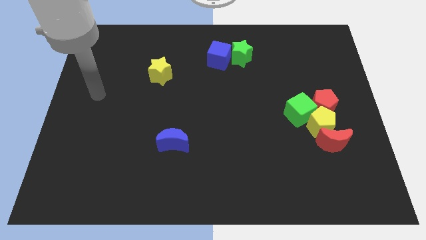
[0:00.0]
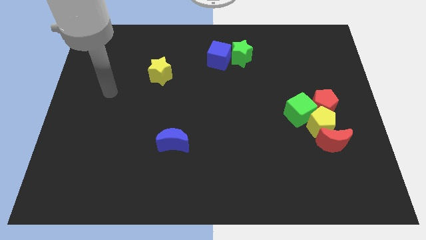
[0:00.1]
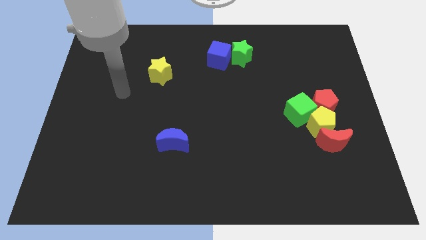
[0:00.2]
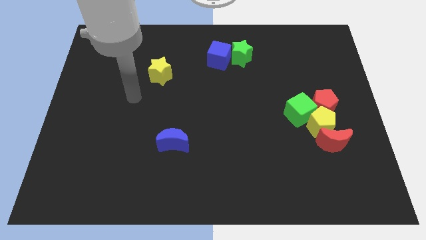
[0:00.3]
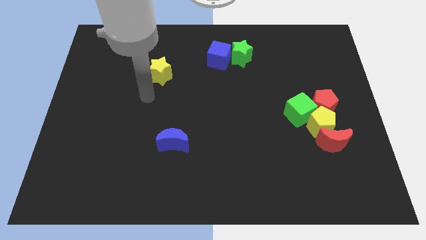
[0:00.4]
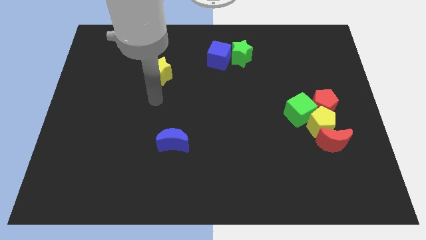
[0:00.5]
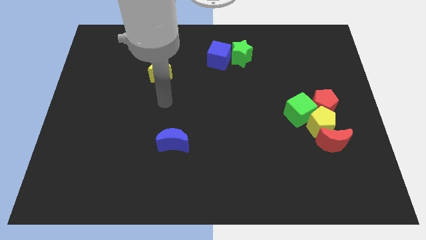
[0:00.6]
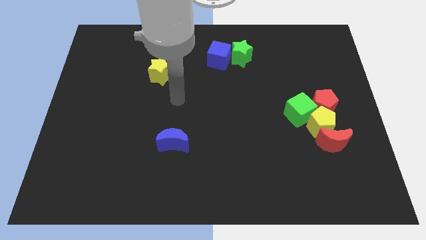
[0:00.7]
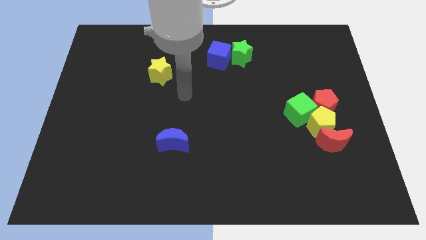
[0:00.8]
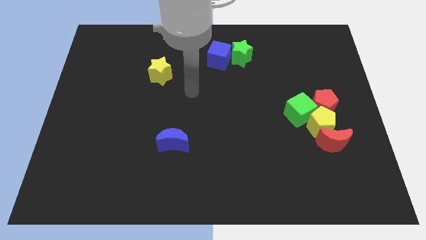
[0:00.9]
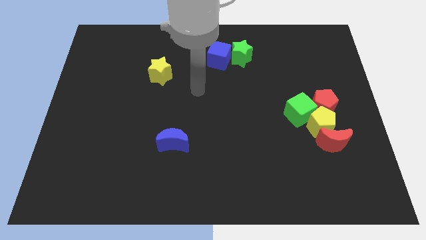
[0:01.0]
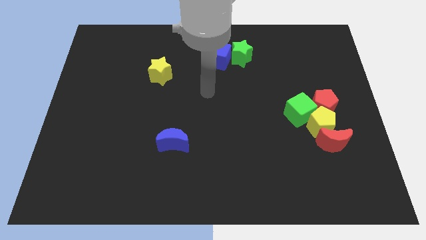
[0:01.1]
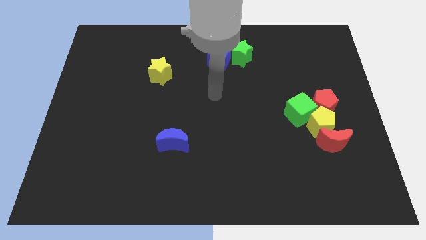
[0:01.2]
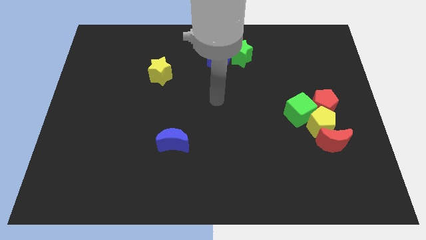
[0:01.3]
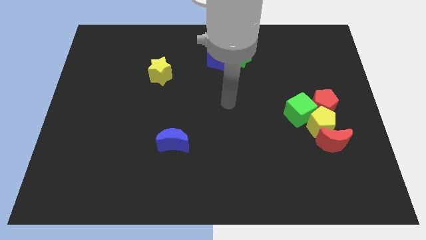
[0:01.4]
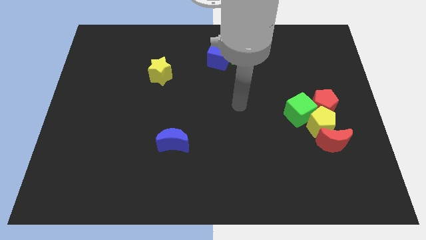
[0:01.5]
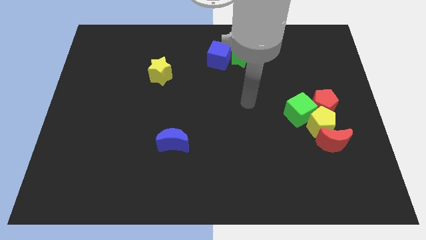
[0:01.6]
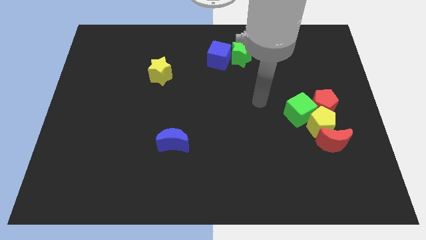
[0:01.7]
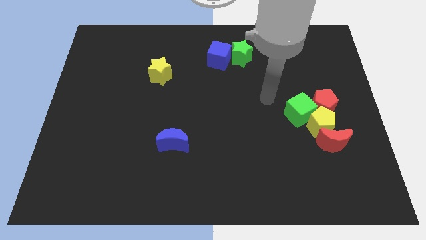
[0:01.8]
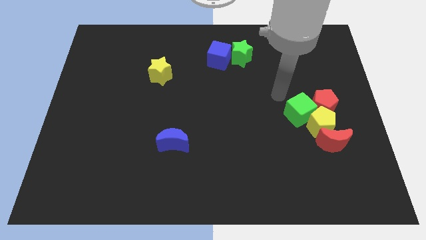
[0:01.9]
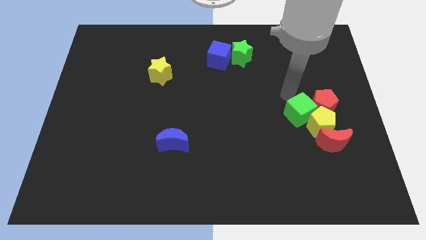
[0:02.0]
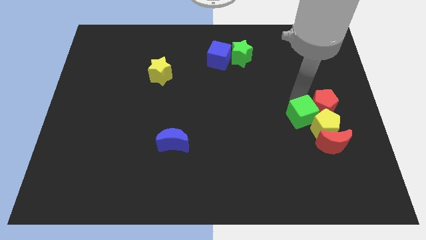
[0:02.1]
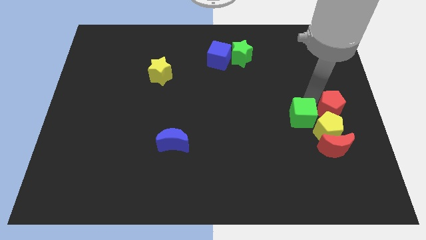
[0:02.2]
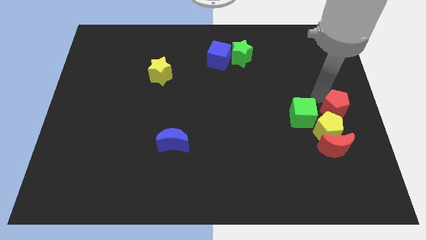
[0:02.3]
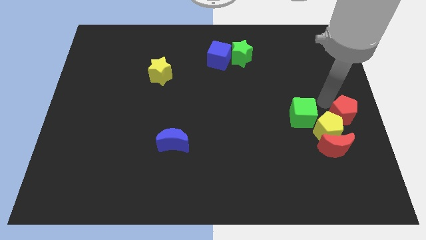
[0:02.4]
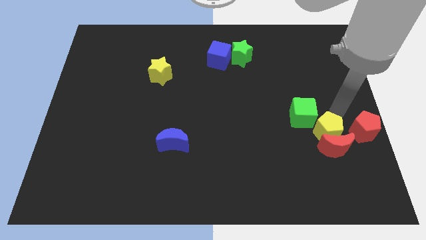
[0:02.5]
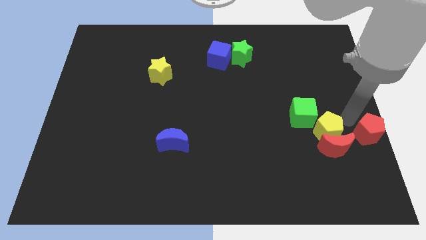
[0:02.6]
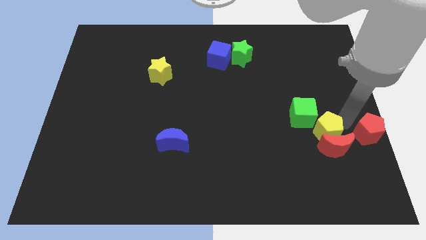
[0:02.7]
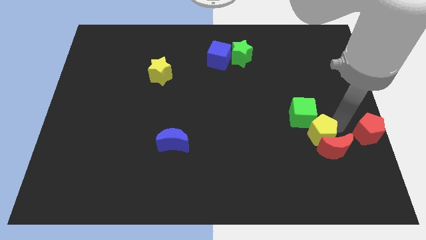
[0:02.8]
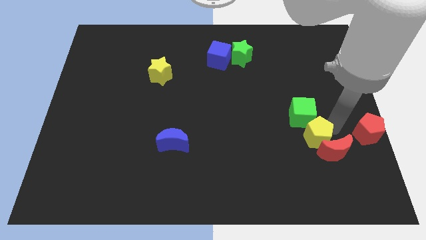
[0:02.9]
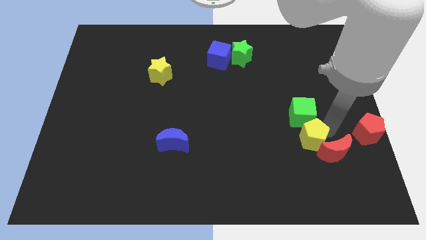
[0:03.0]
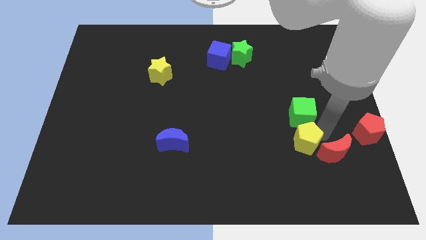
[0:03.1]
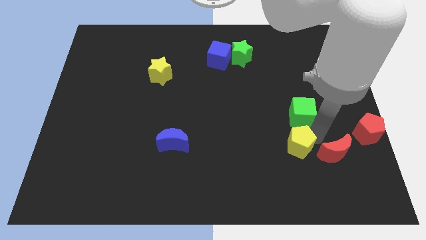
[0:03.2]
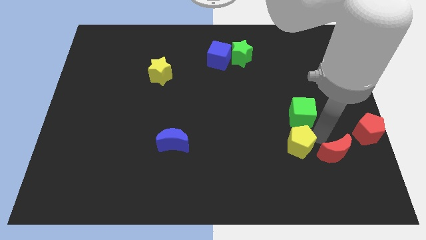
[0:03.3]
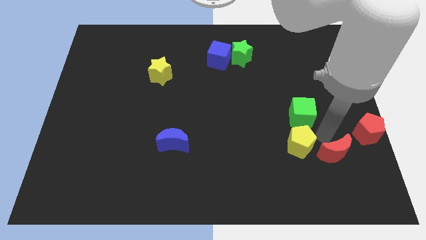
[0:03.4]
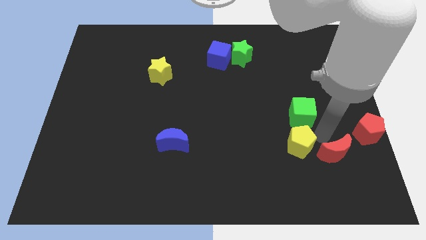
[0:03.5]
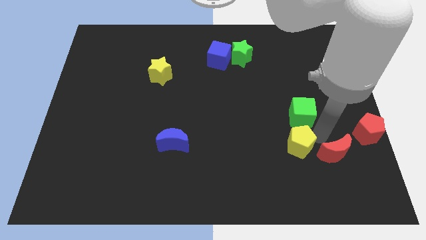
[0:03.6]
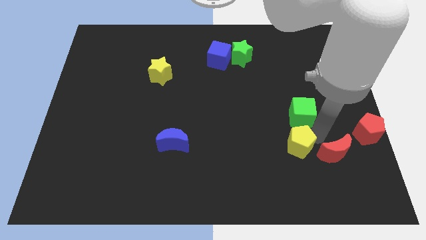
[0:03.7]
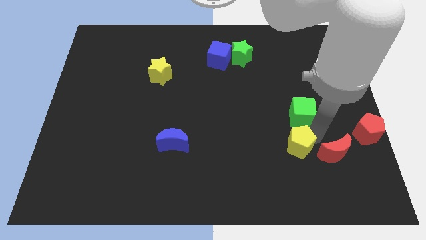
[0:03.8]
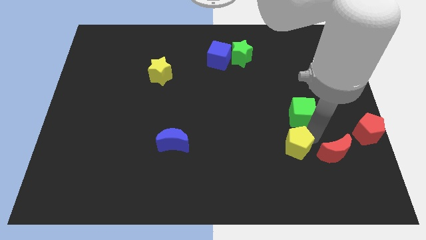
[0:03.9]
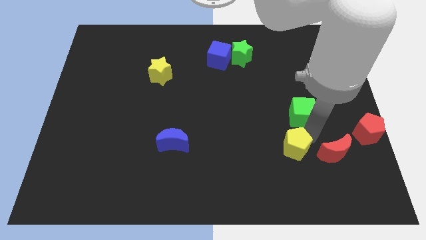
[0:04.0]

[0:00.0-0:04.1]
pull the yellow pentagon apart from the group

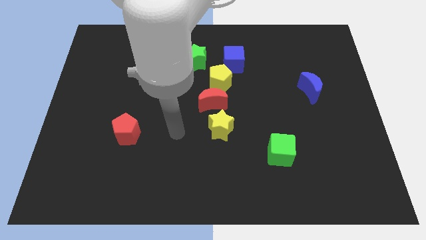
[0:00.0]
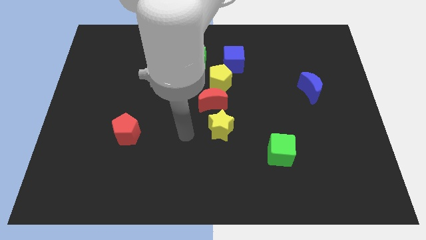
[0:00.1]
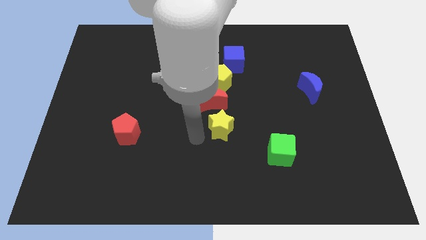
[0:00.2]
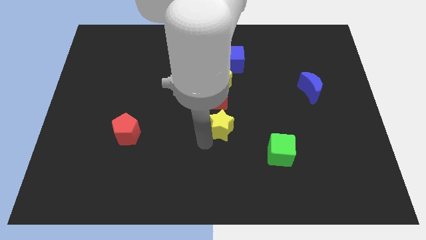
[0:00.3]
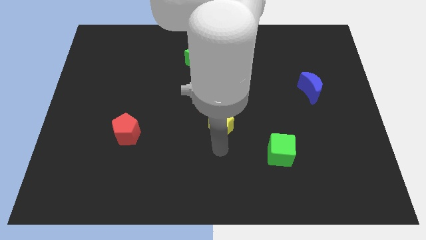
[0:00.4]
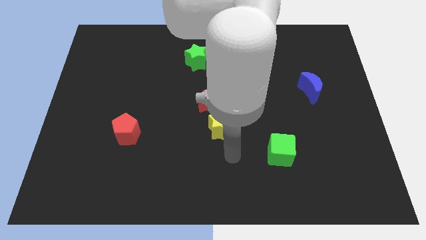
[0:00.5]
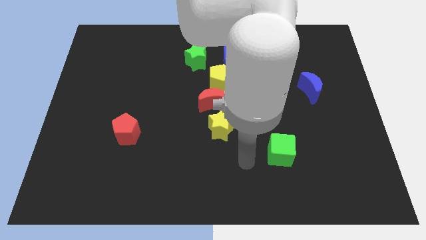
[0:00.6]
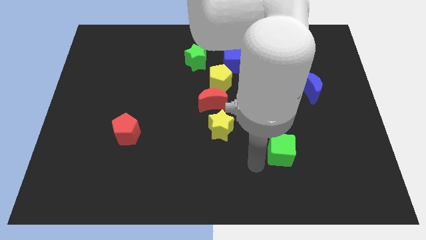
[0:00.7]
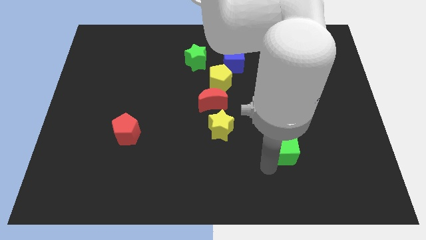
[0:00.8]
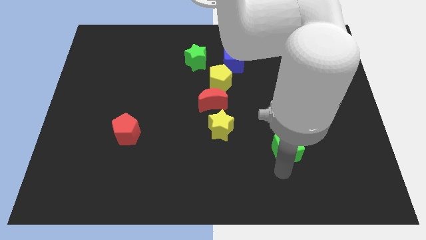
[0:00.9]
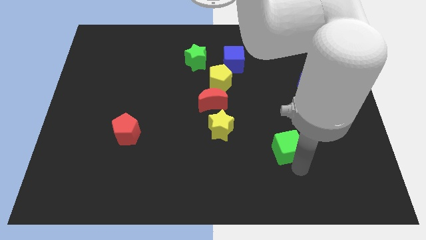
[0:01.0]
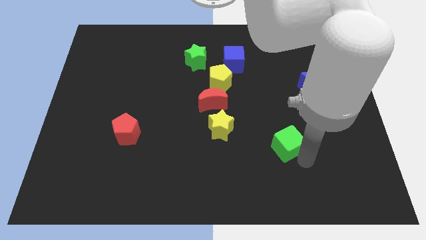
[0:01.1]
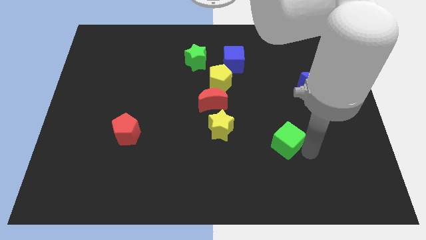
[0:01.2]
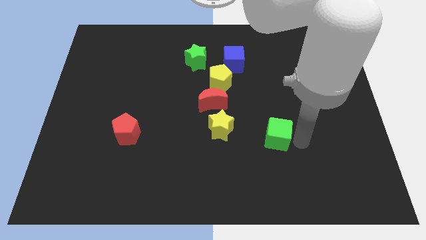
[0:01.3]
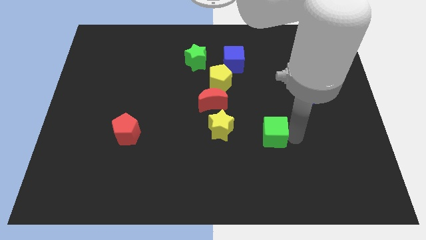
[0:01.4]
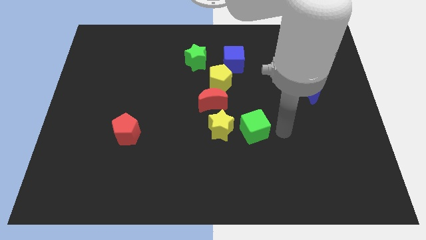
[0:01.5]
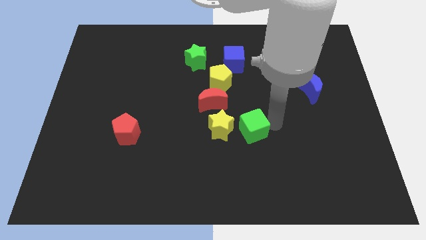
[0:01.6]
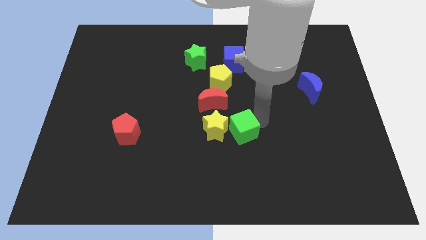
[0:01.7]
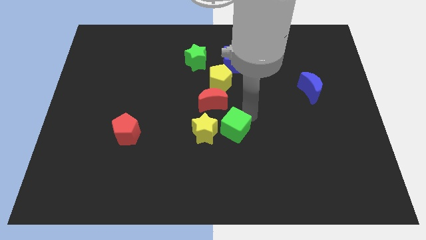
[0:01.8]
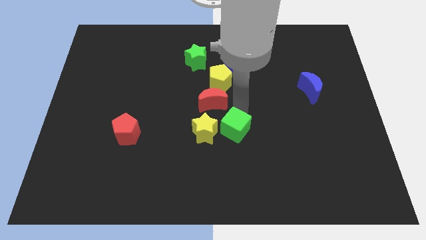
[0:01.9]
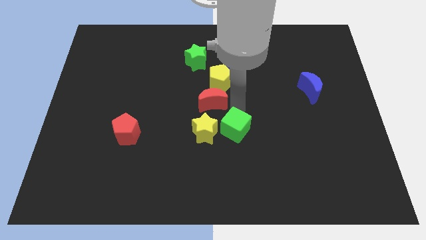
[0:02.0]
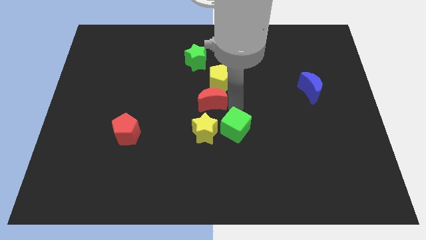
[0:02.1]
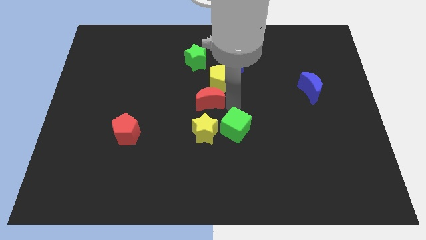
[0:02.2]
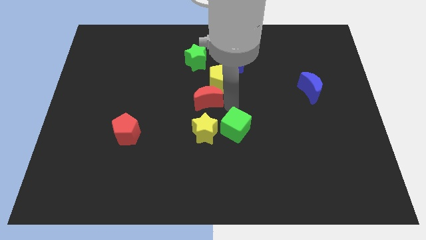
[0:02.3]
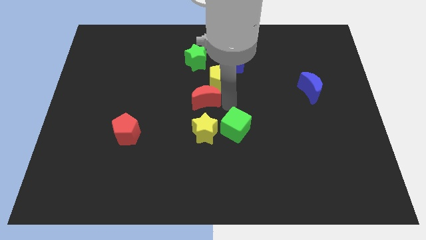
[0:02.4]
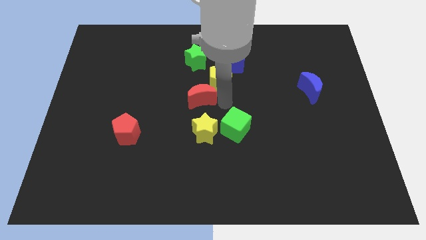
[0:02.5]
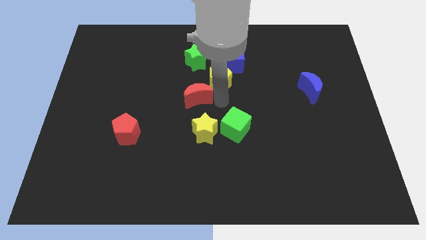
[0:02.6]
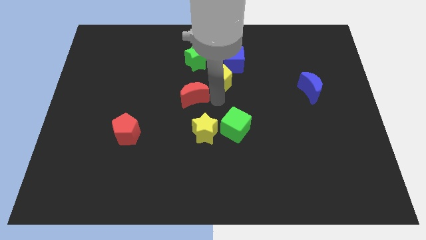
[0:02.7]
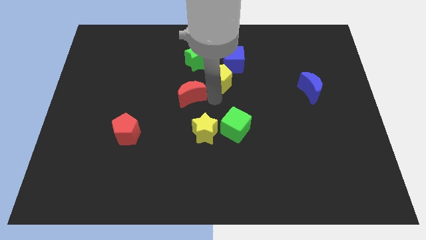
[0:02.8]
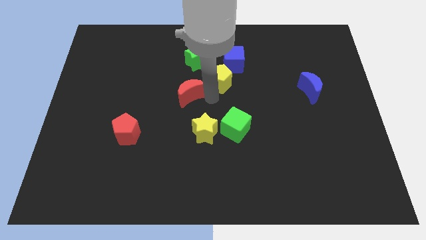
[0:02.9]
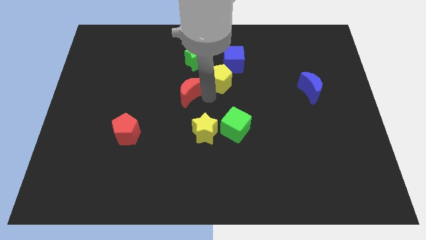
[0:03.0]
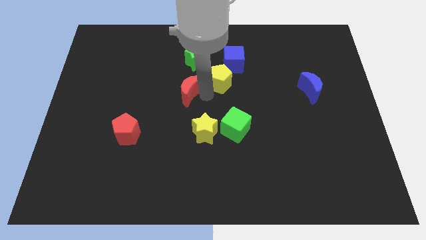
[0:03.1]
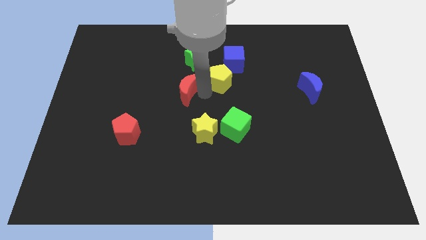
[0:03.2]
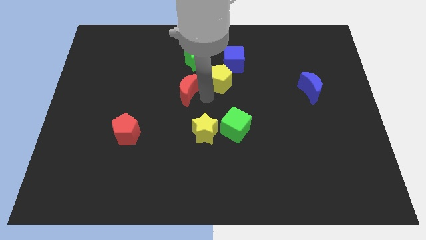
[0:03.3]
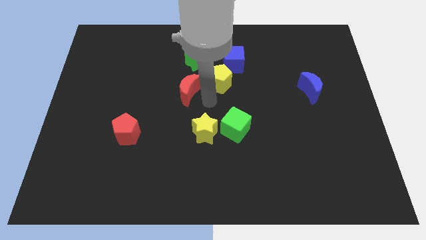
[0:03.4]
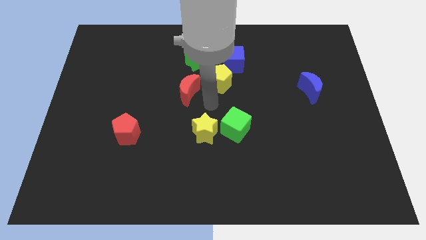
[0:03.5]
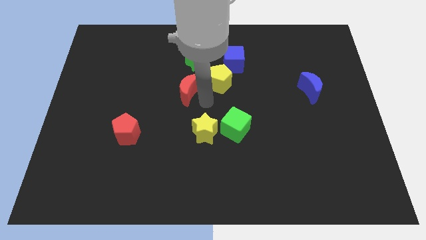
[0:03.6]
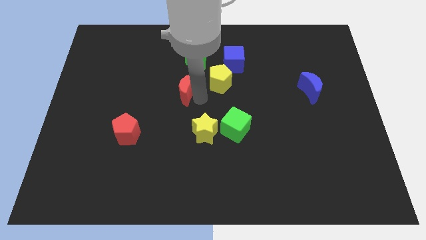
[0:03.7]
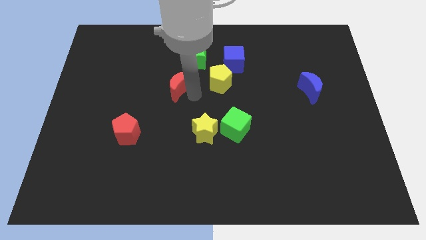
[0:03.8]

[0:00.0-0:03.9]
separate the red moon from the yellow pentagon and yellow star

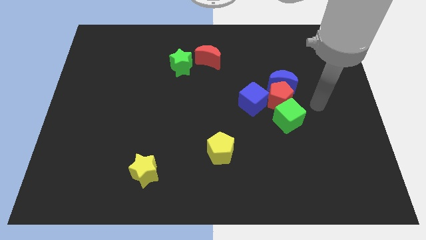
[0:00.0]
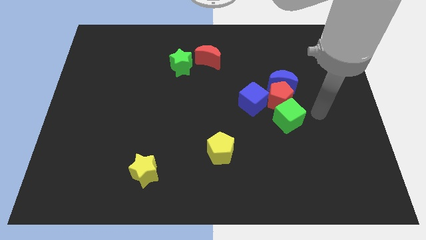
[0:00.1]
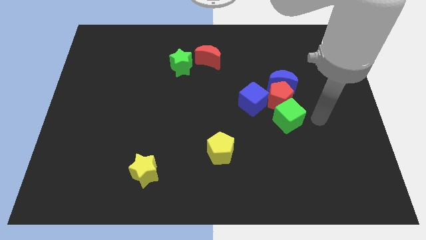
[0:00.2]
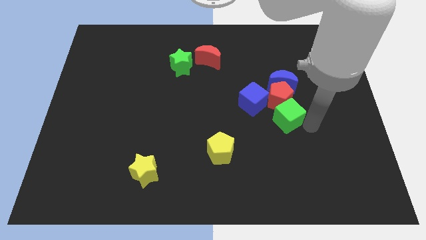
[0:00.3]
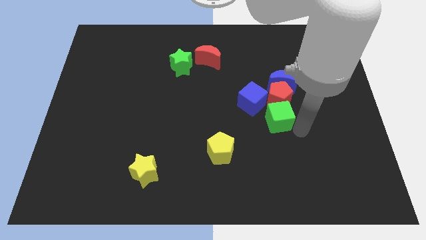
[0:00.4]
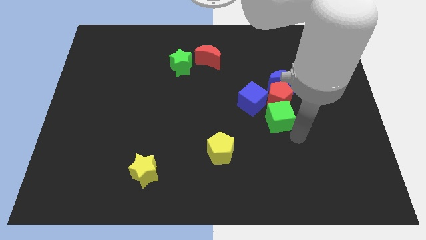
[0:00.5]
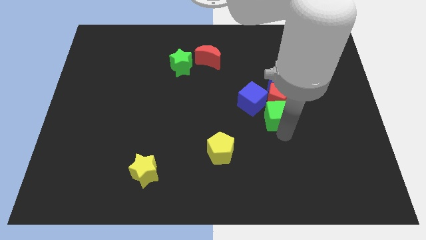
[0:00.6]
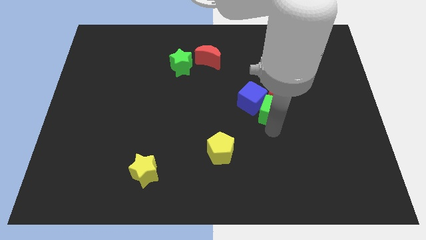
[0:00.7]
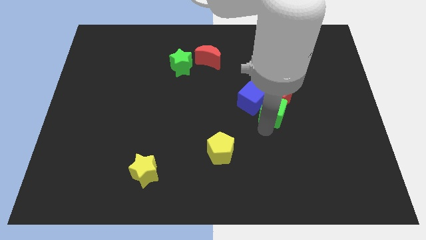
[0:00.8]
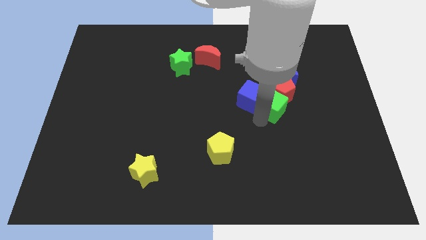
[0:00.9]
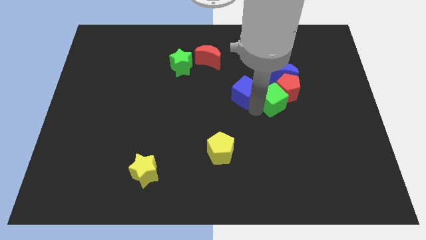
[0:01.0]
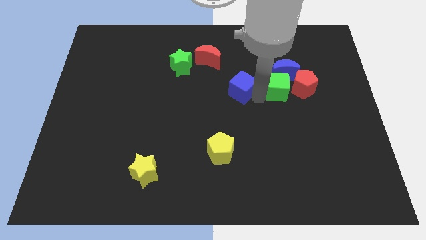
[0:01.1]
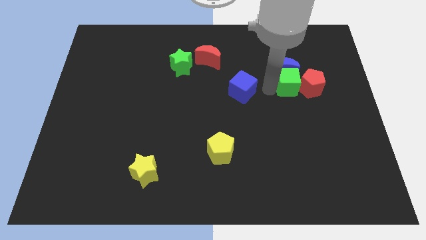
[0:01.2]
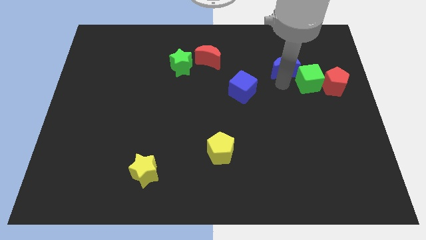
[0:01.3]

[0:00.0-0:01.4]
move the red pentagon away from the blue moon, green cube, and blue cube

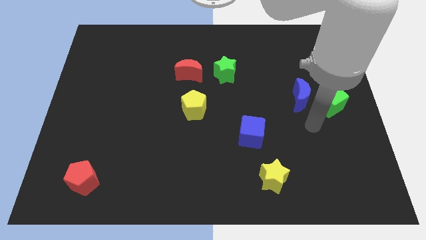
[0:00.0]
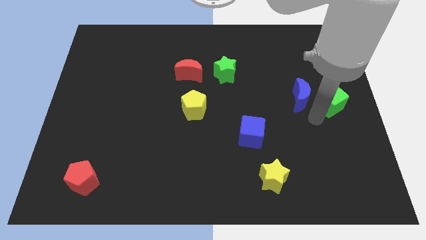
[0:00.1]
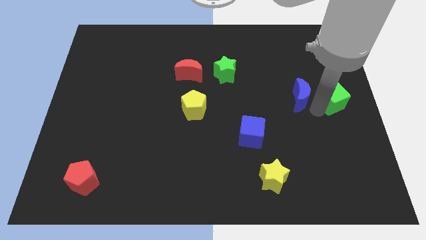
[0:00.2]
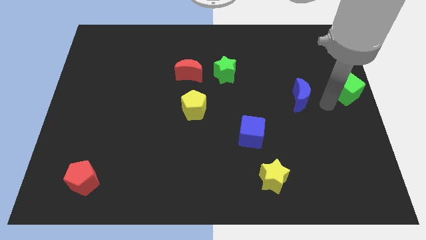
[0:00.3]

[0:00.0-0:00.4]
separate the blue moon from the green cube
